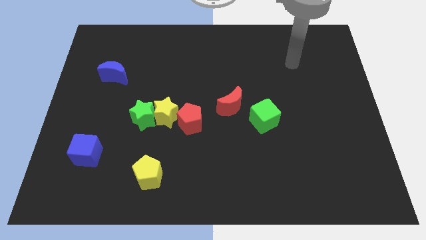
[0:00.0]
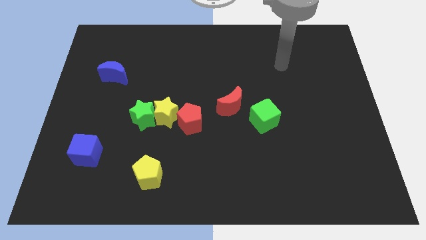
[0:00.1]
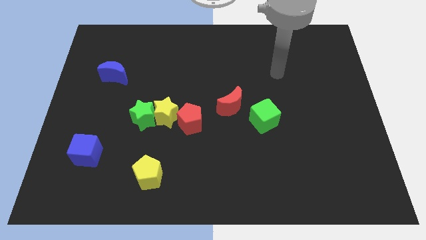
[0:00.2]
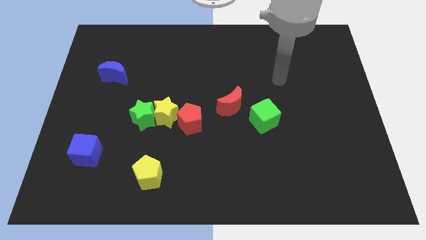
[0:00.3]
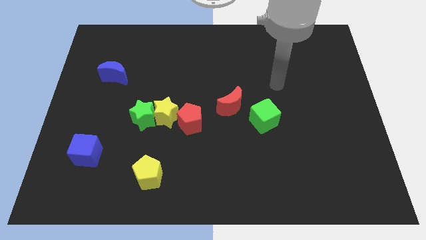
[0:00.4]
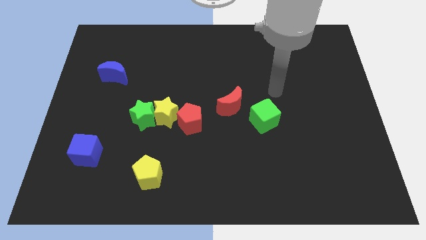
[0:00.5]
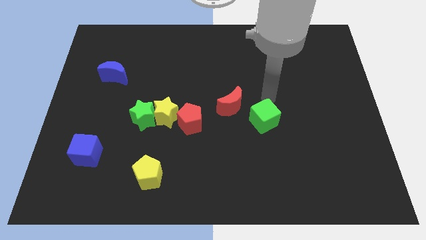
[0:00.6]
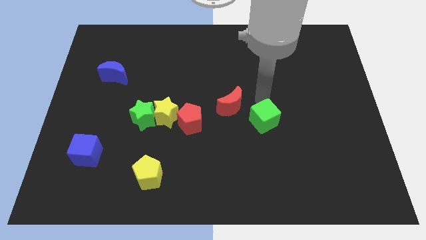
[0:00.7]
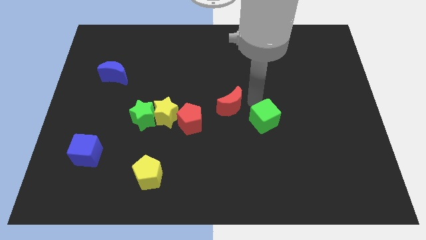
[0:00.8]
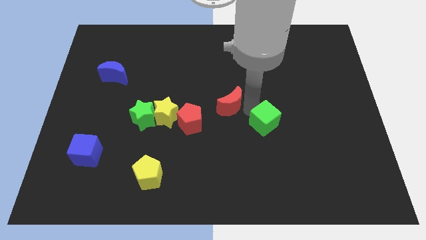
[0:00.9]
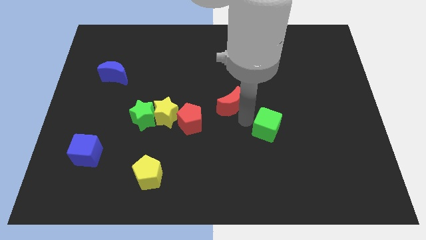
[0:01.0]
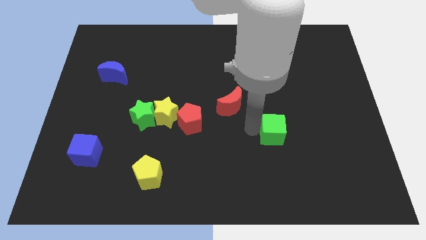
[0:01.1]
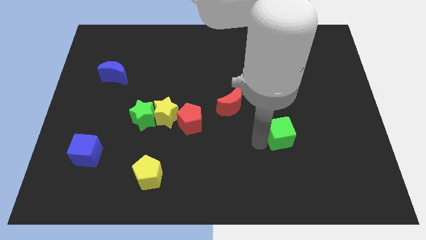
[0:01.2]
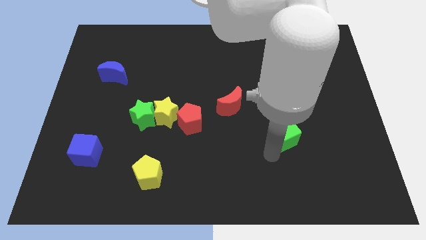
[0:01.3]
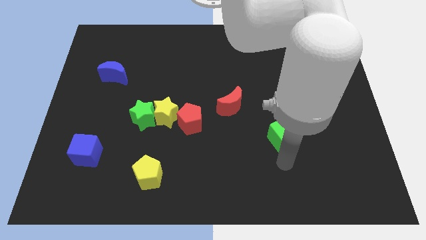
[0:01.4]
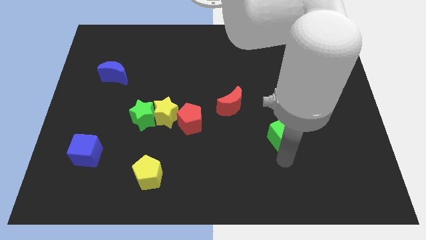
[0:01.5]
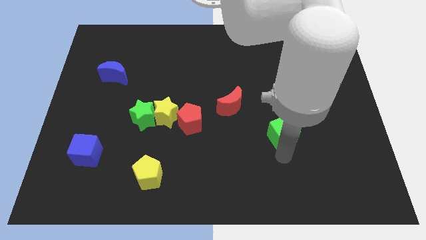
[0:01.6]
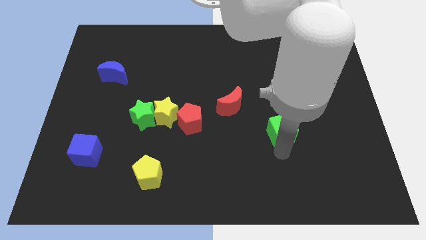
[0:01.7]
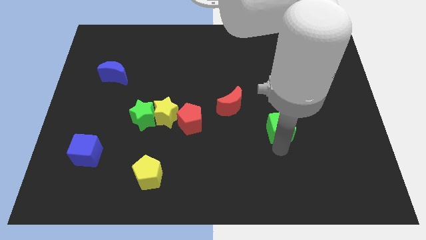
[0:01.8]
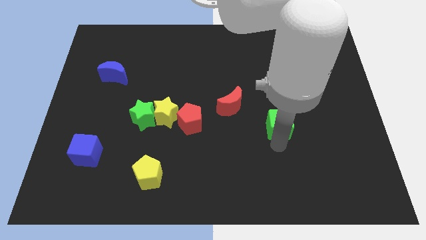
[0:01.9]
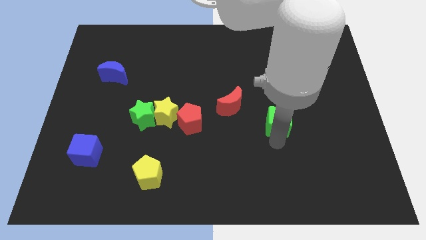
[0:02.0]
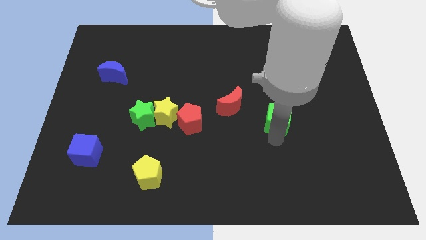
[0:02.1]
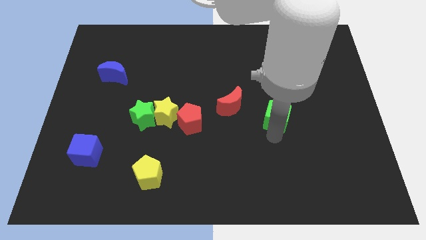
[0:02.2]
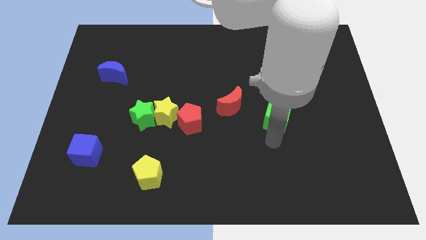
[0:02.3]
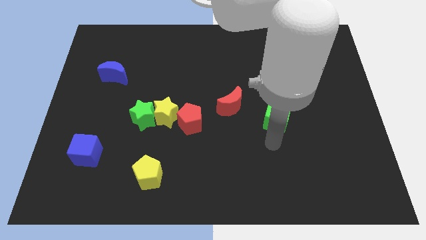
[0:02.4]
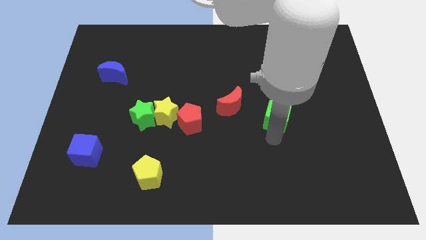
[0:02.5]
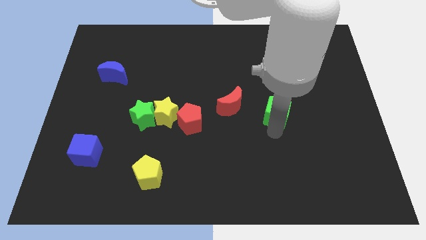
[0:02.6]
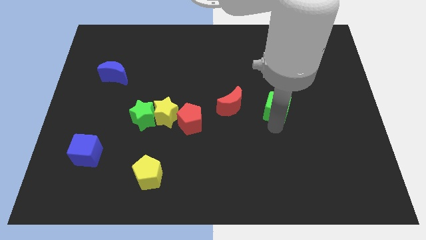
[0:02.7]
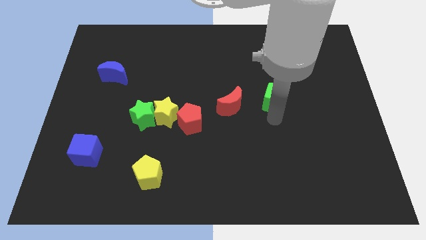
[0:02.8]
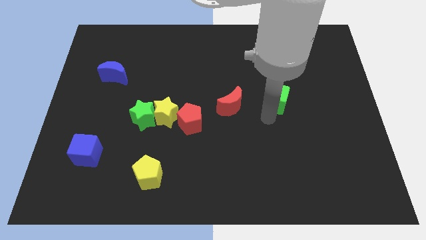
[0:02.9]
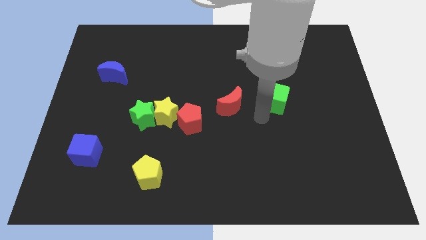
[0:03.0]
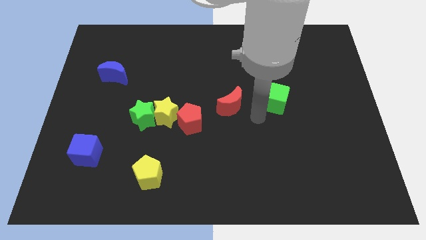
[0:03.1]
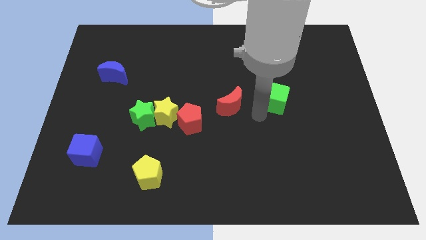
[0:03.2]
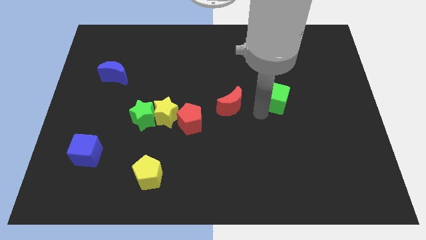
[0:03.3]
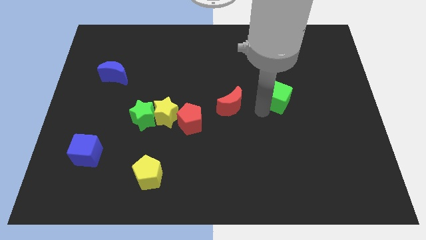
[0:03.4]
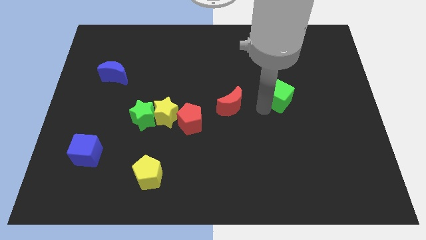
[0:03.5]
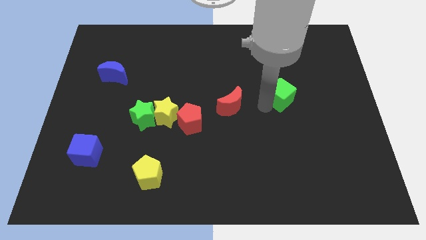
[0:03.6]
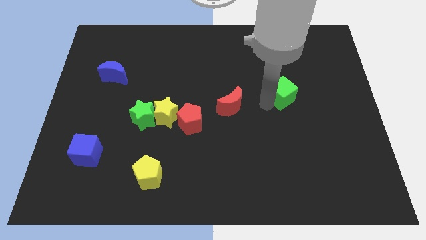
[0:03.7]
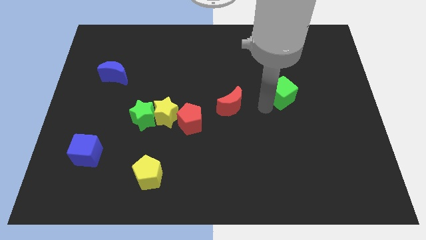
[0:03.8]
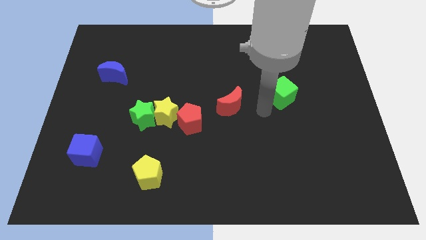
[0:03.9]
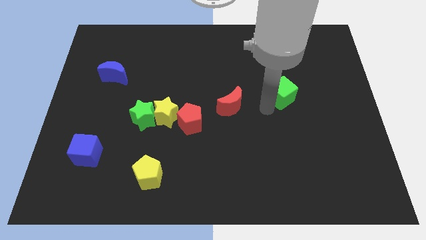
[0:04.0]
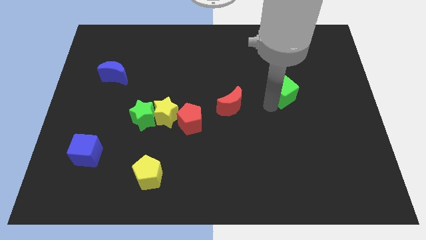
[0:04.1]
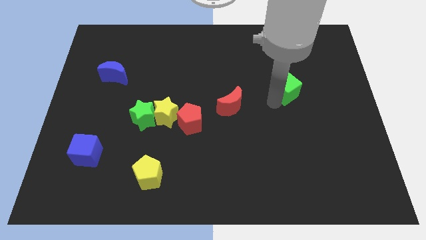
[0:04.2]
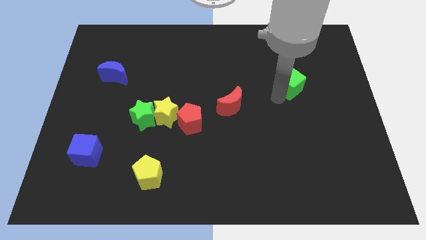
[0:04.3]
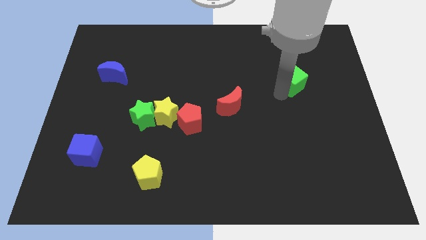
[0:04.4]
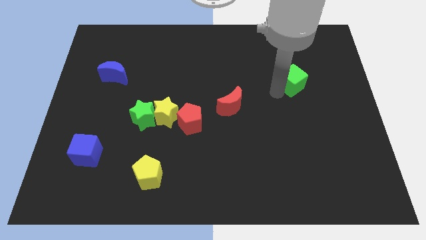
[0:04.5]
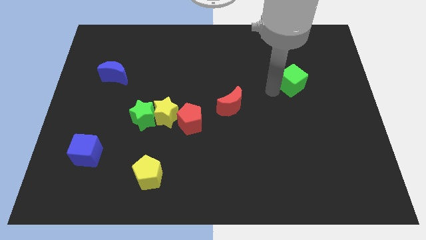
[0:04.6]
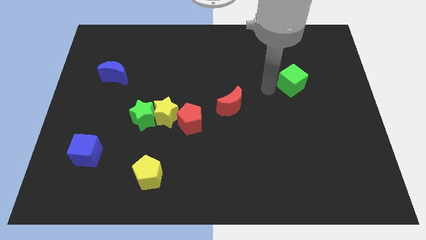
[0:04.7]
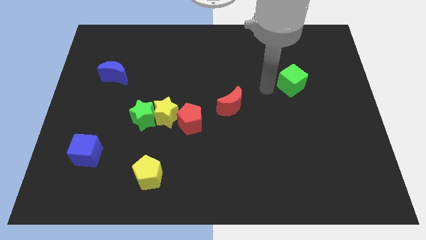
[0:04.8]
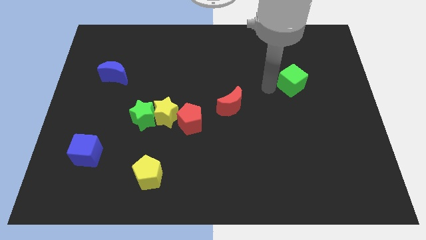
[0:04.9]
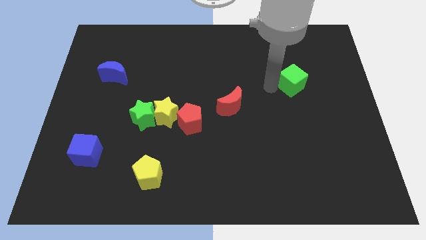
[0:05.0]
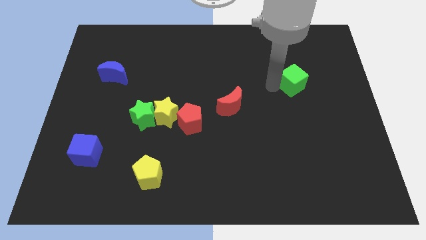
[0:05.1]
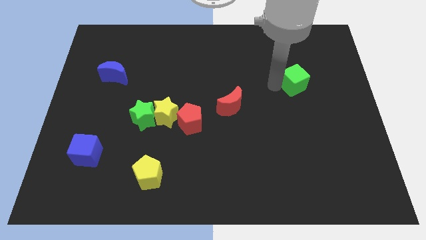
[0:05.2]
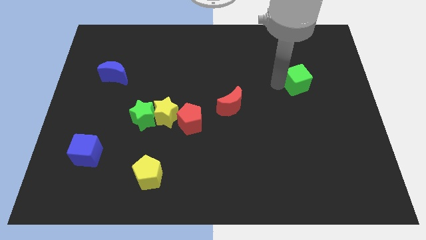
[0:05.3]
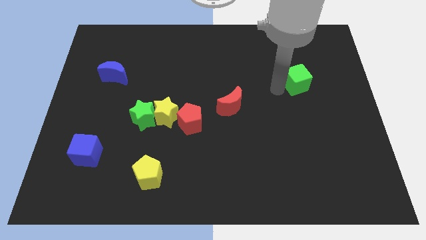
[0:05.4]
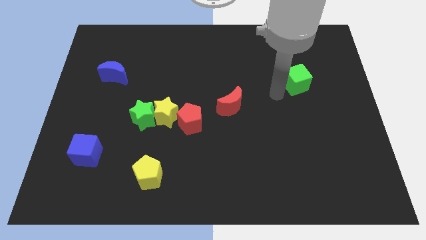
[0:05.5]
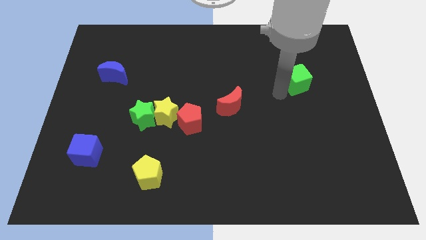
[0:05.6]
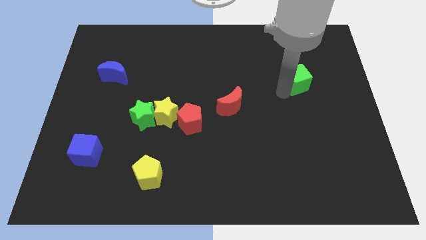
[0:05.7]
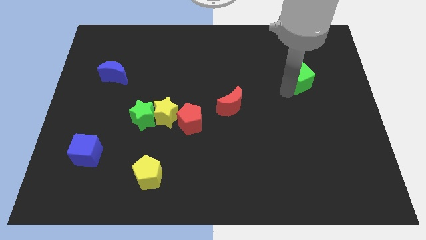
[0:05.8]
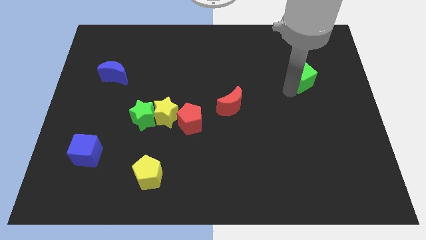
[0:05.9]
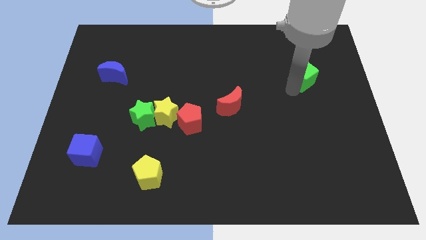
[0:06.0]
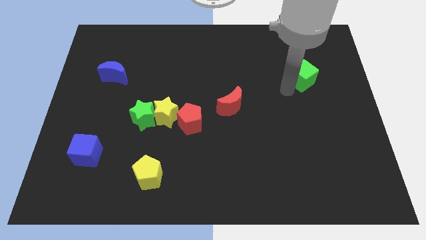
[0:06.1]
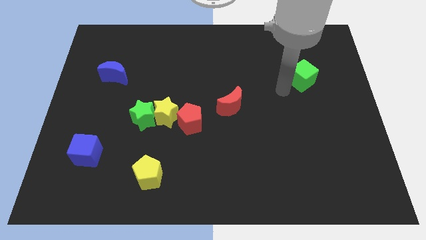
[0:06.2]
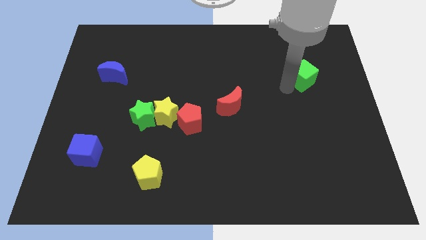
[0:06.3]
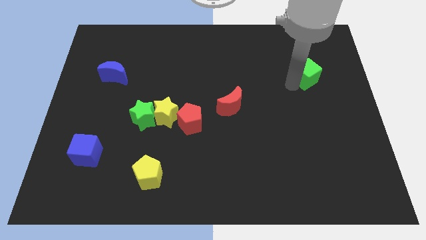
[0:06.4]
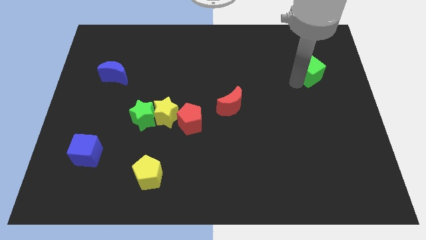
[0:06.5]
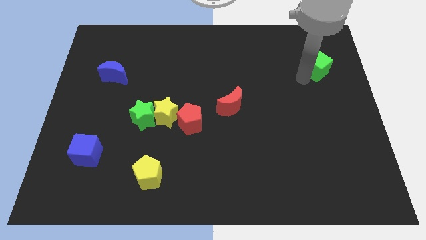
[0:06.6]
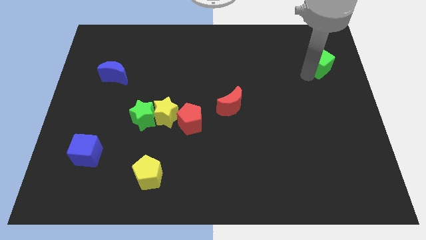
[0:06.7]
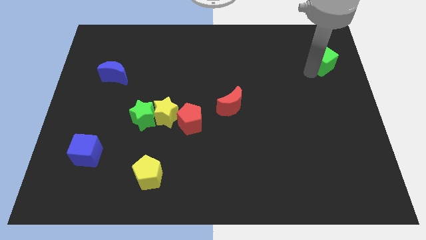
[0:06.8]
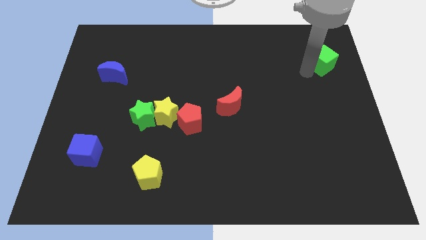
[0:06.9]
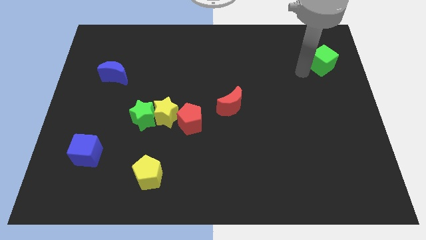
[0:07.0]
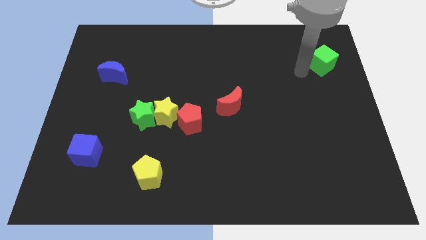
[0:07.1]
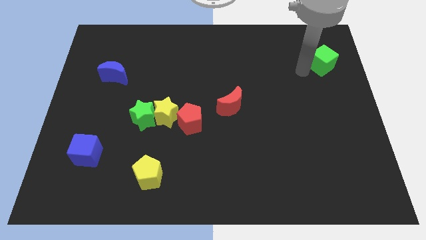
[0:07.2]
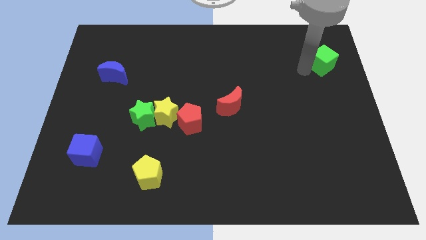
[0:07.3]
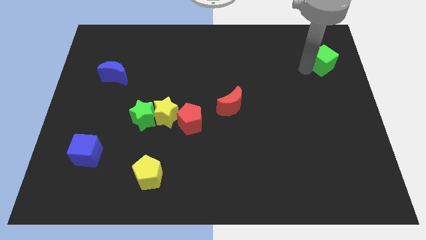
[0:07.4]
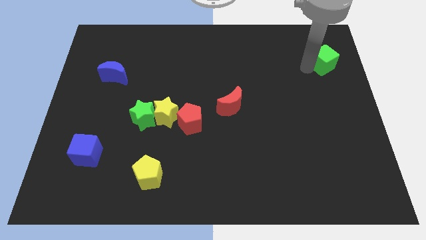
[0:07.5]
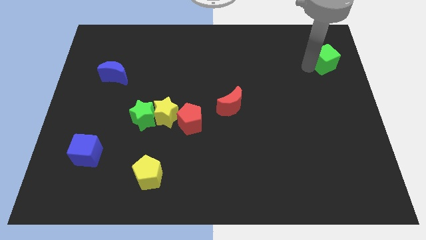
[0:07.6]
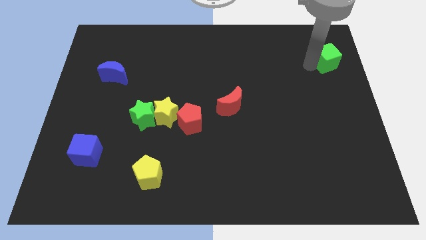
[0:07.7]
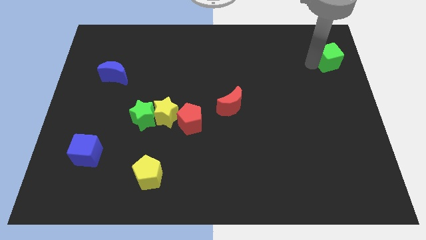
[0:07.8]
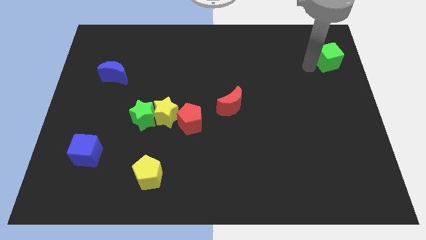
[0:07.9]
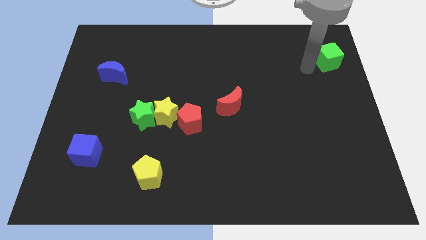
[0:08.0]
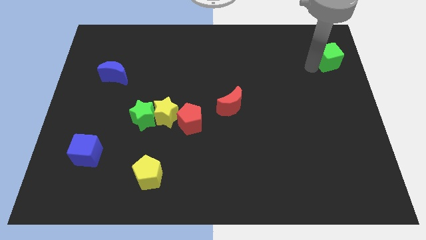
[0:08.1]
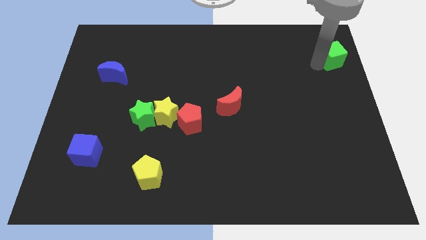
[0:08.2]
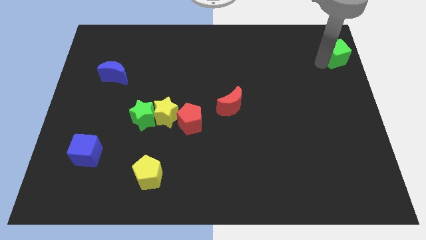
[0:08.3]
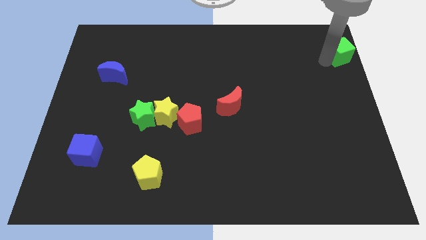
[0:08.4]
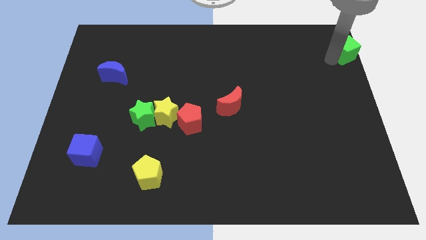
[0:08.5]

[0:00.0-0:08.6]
put the green cube to the upper right corner
